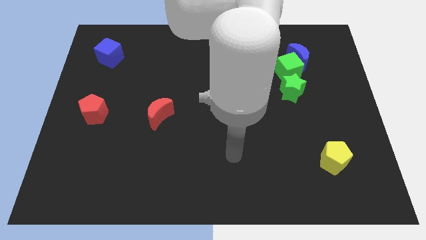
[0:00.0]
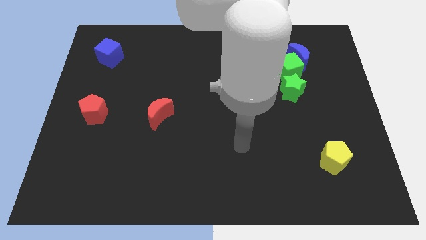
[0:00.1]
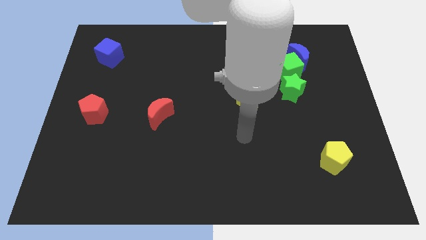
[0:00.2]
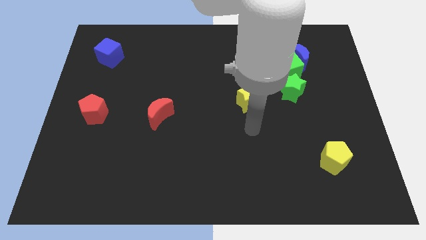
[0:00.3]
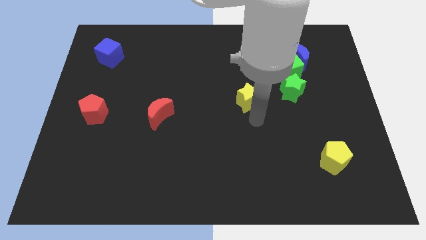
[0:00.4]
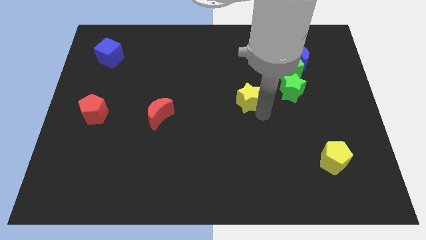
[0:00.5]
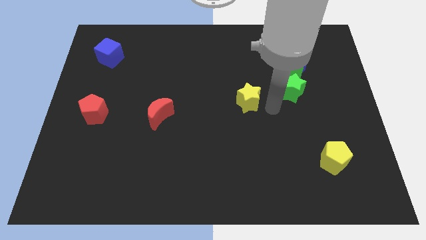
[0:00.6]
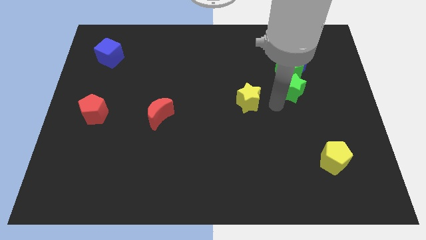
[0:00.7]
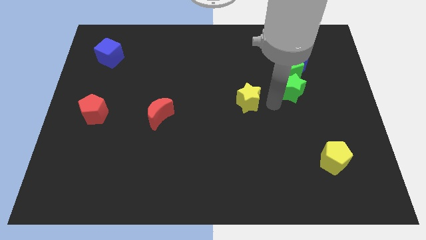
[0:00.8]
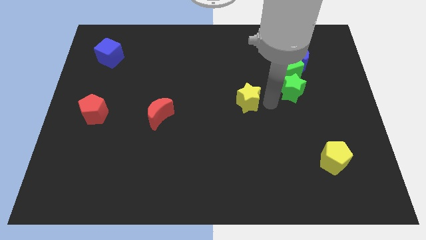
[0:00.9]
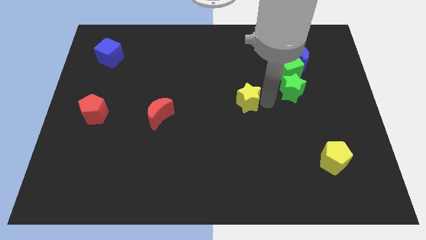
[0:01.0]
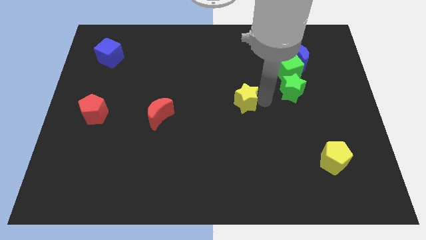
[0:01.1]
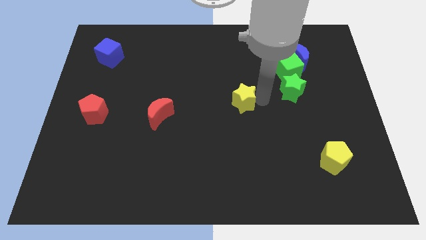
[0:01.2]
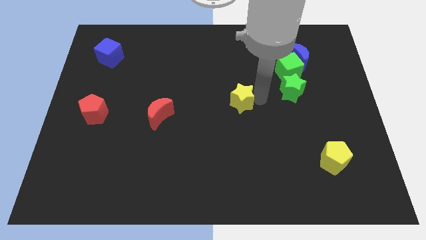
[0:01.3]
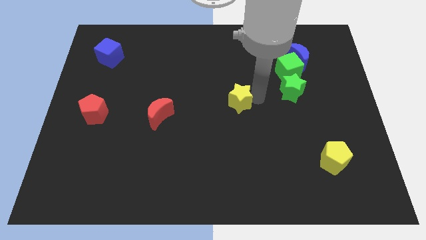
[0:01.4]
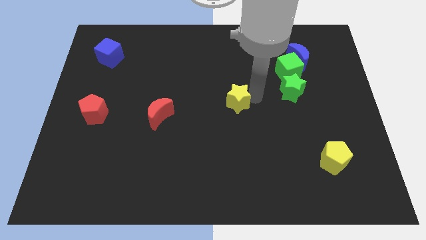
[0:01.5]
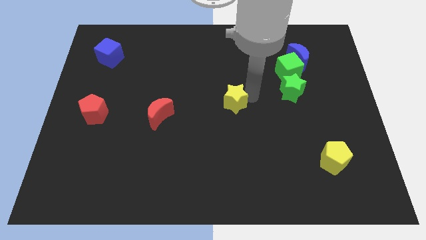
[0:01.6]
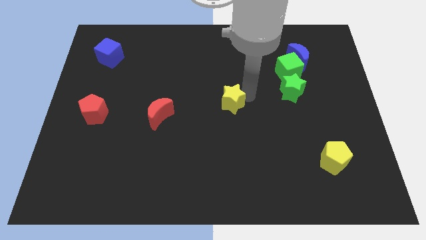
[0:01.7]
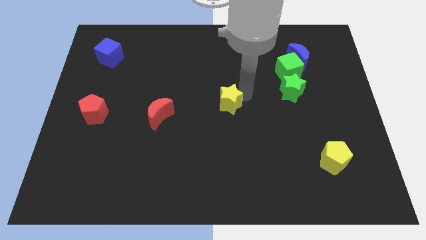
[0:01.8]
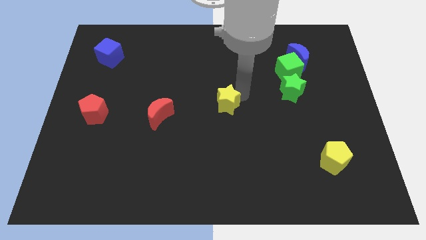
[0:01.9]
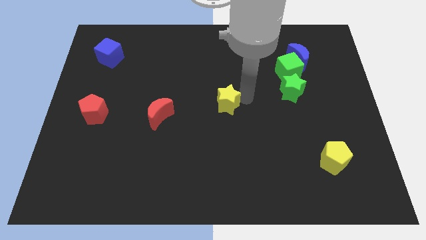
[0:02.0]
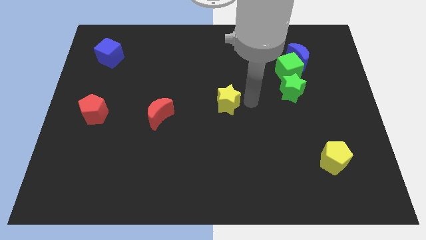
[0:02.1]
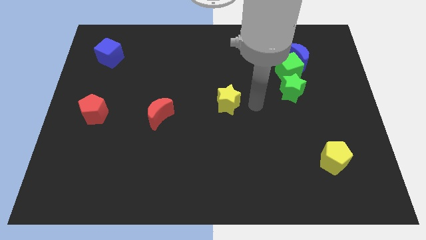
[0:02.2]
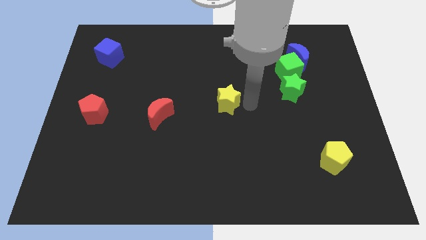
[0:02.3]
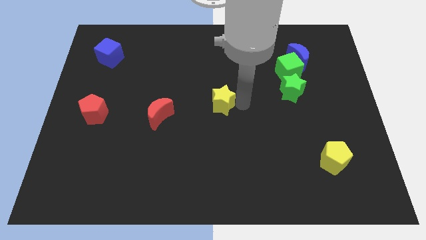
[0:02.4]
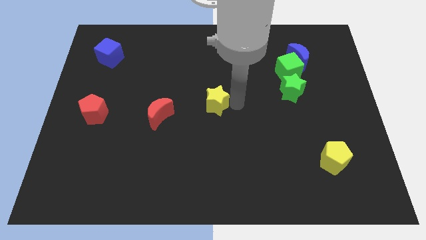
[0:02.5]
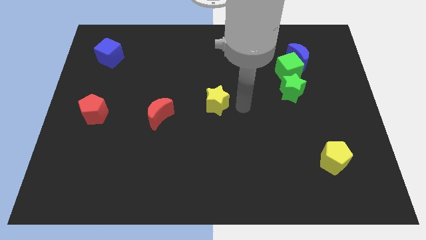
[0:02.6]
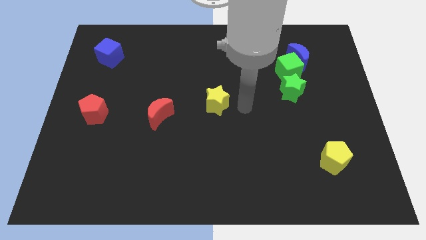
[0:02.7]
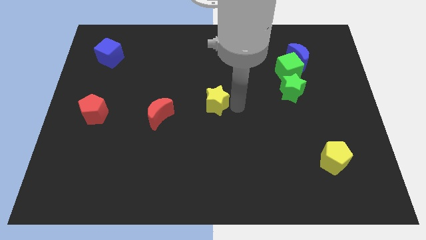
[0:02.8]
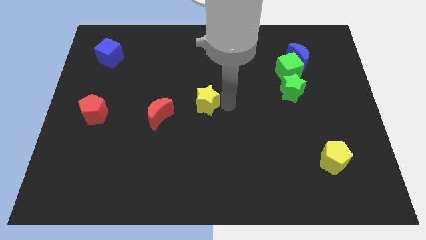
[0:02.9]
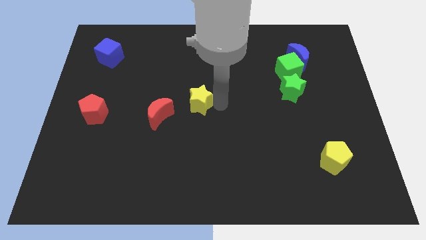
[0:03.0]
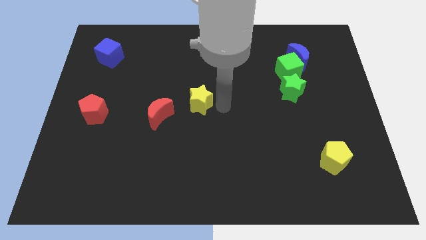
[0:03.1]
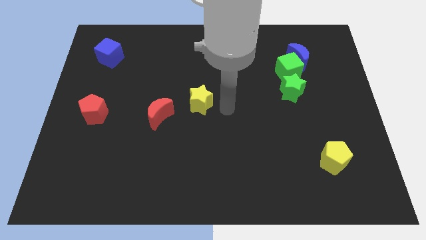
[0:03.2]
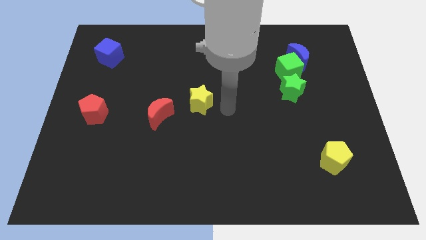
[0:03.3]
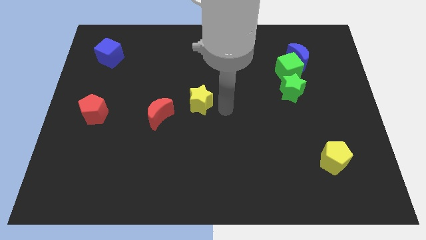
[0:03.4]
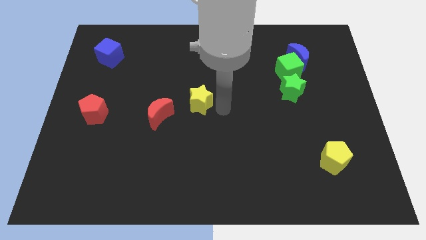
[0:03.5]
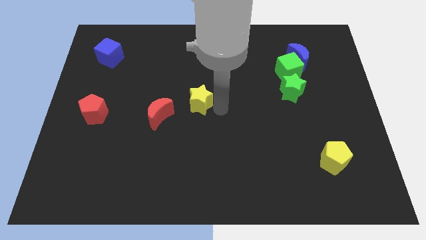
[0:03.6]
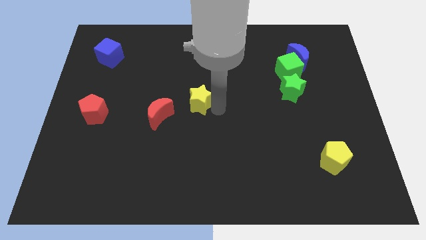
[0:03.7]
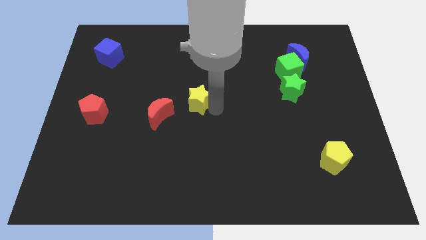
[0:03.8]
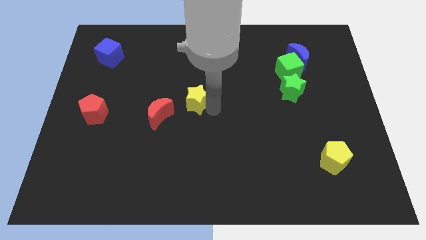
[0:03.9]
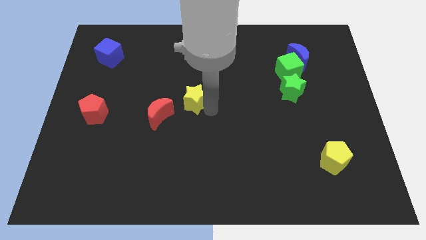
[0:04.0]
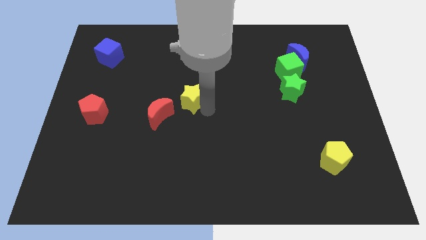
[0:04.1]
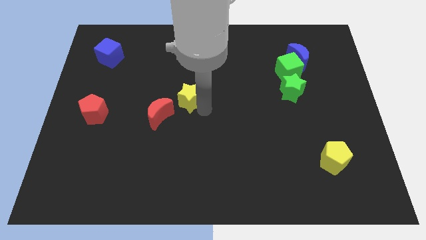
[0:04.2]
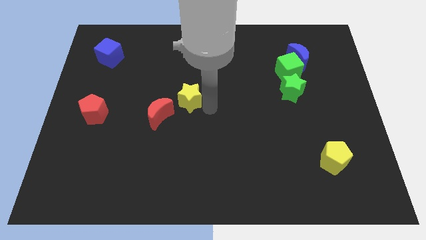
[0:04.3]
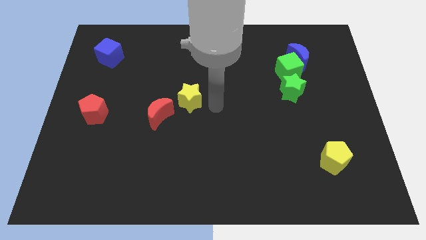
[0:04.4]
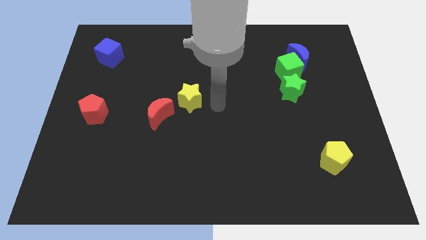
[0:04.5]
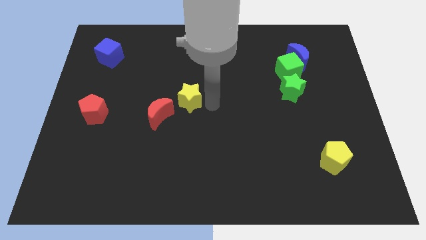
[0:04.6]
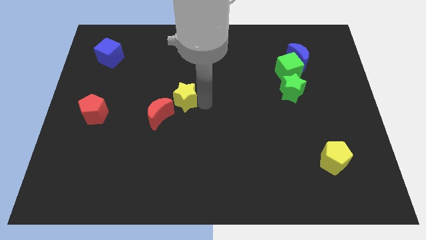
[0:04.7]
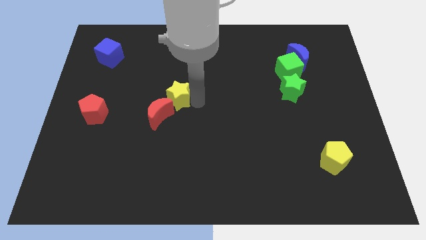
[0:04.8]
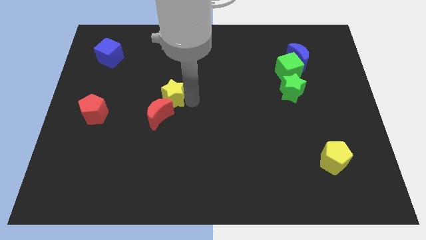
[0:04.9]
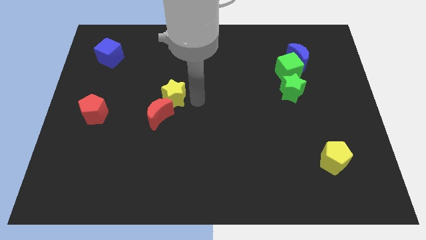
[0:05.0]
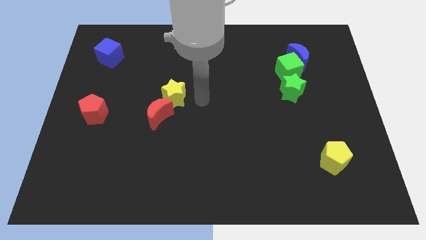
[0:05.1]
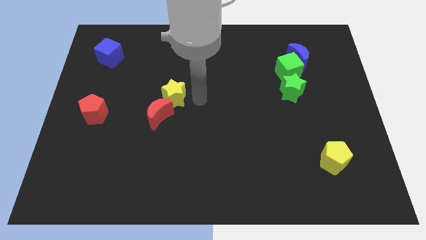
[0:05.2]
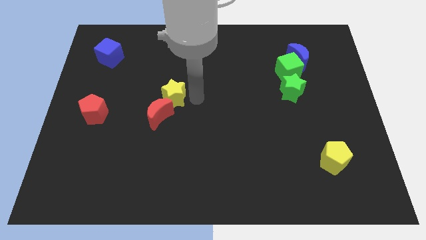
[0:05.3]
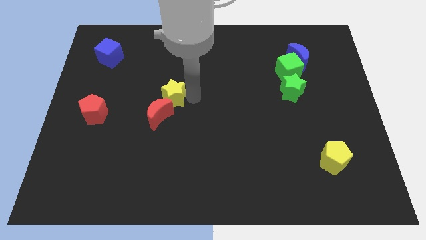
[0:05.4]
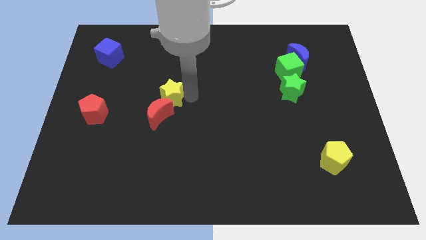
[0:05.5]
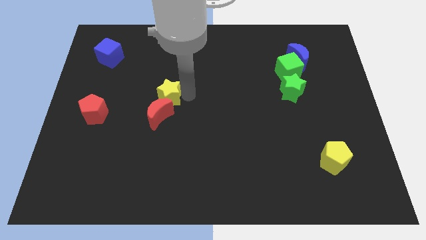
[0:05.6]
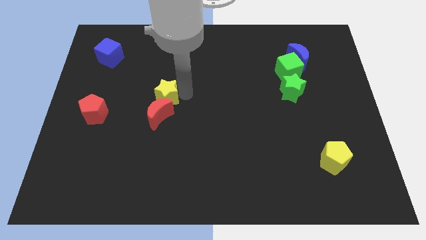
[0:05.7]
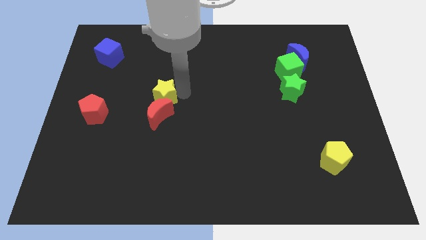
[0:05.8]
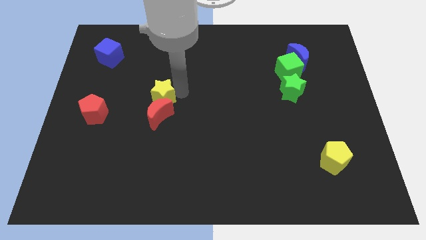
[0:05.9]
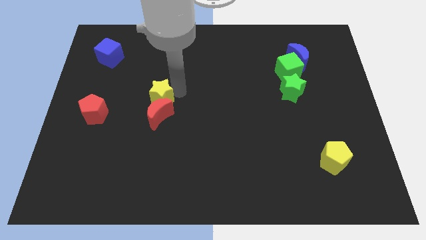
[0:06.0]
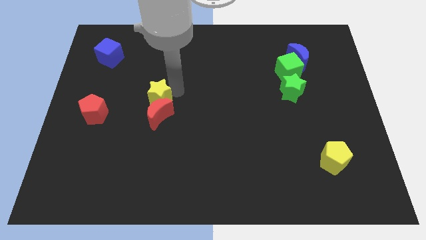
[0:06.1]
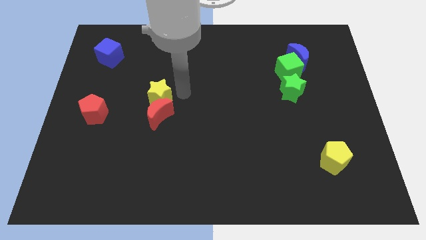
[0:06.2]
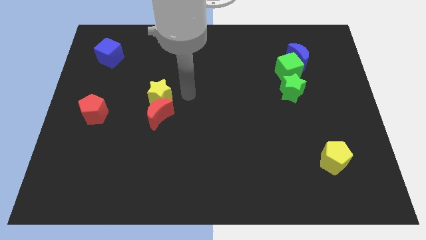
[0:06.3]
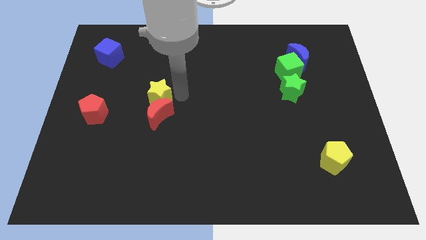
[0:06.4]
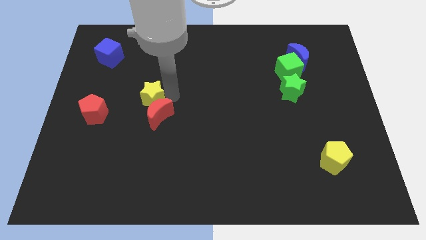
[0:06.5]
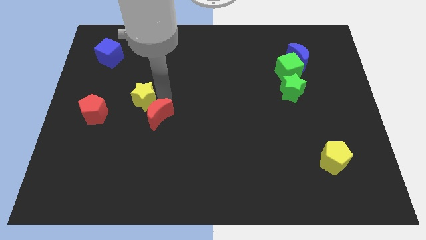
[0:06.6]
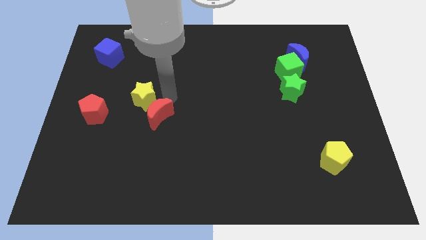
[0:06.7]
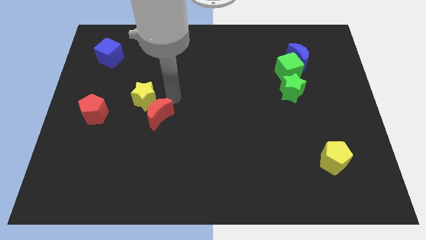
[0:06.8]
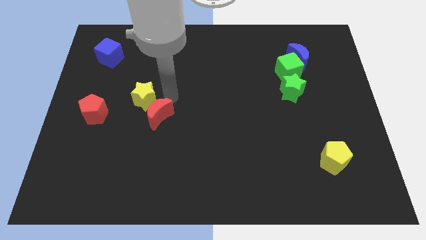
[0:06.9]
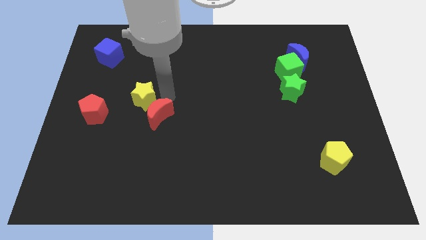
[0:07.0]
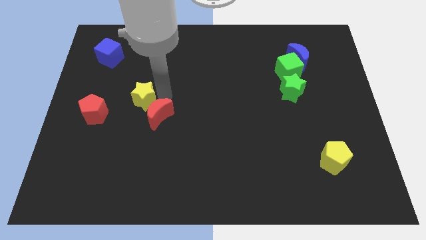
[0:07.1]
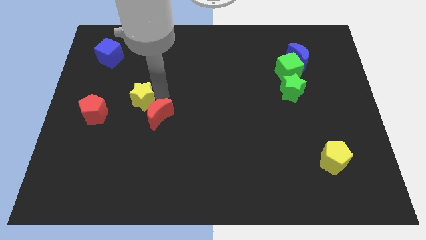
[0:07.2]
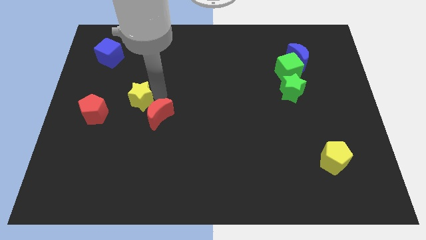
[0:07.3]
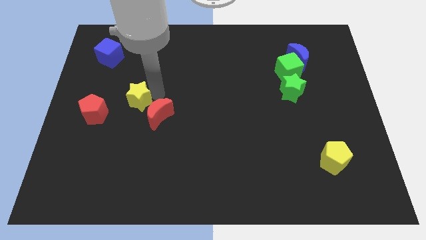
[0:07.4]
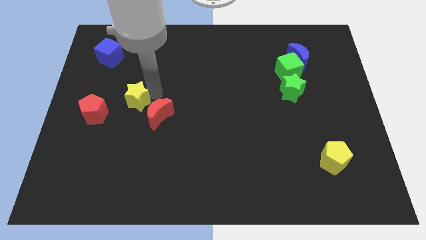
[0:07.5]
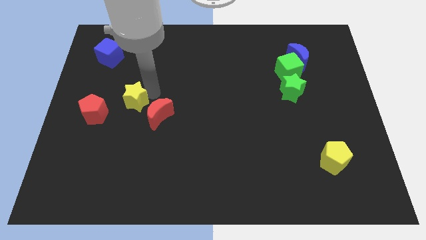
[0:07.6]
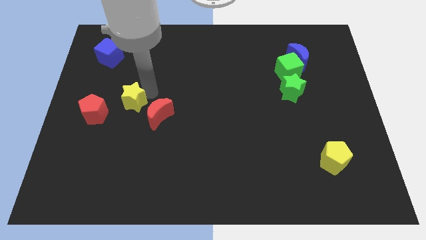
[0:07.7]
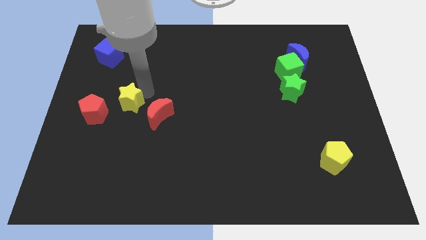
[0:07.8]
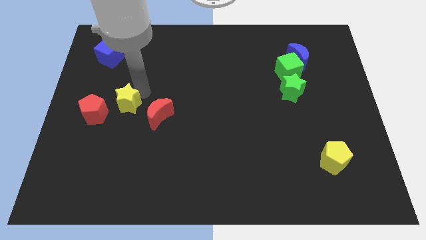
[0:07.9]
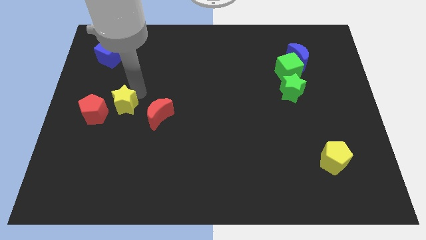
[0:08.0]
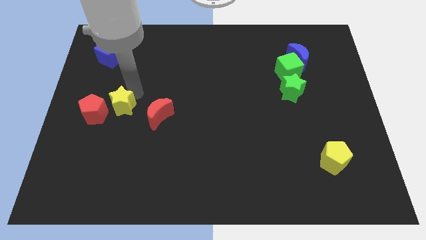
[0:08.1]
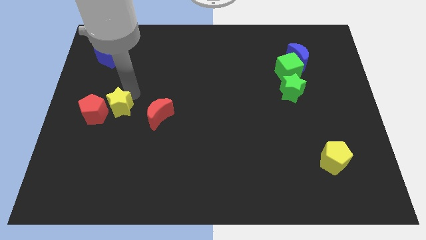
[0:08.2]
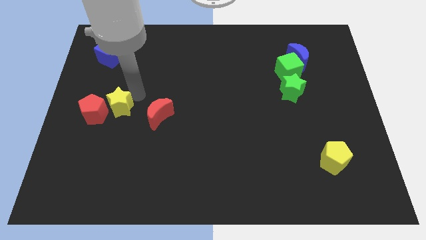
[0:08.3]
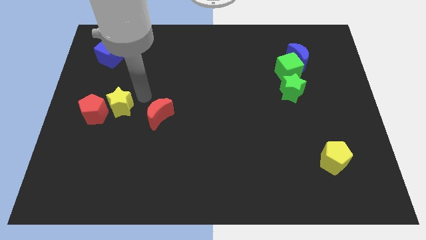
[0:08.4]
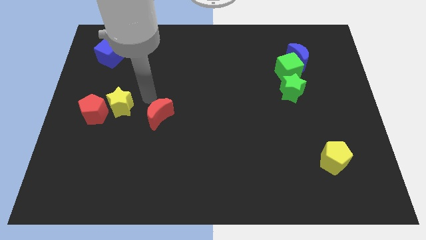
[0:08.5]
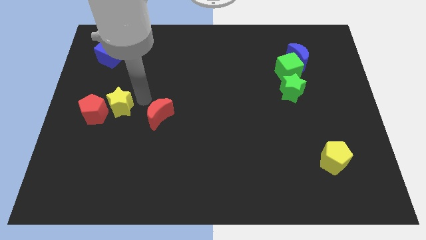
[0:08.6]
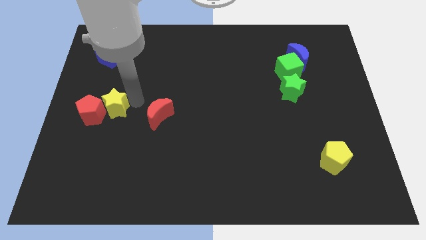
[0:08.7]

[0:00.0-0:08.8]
move the yellow star to the red pentagon
